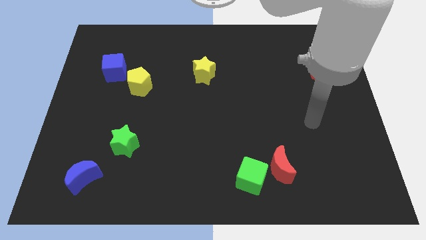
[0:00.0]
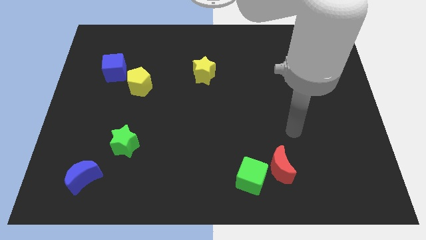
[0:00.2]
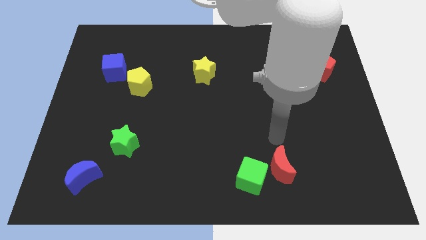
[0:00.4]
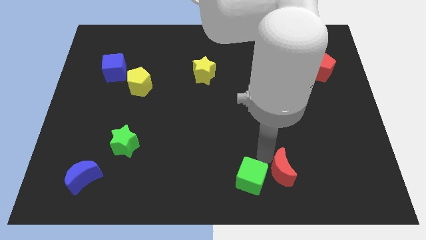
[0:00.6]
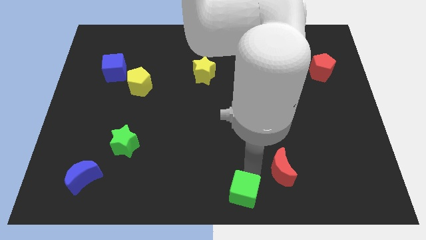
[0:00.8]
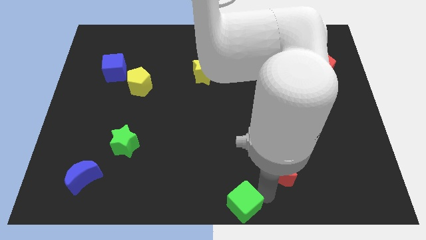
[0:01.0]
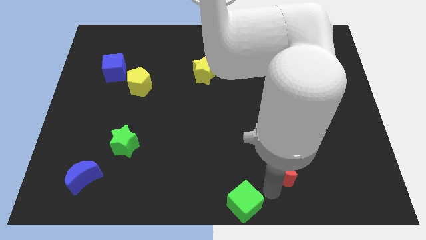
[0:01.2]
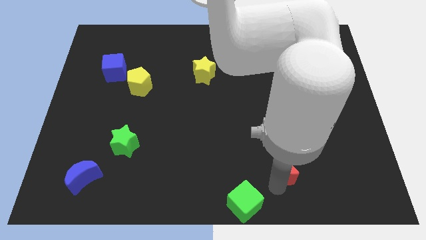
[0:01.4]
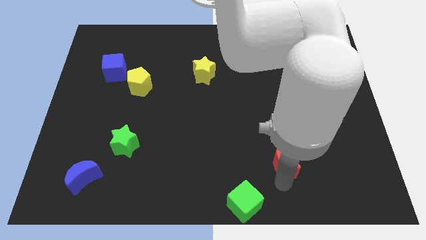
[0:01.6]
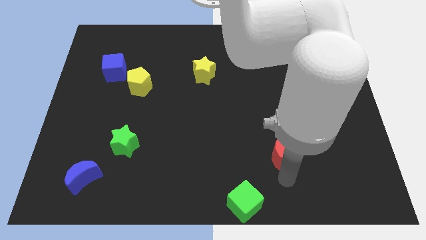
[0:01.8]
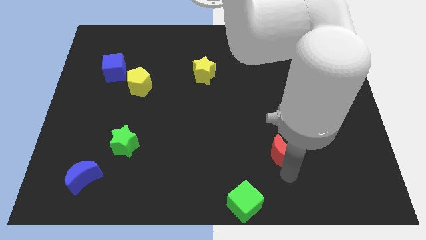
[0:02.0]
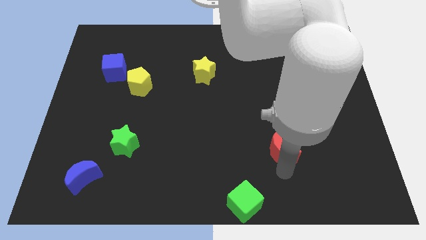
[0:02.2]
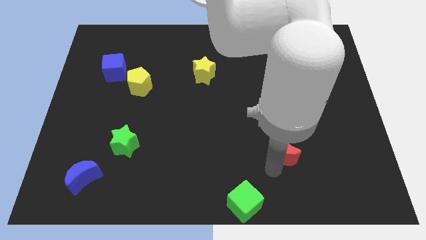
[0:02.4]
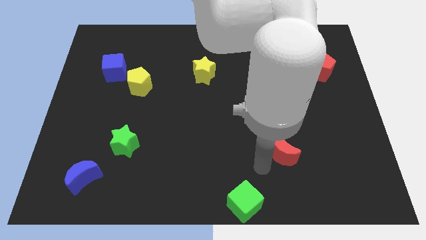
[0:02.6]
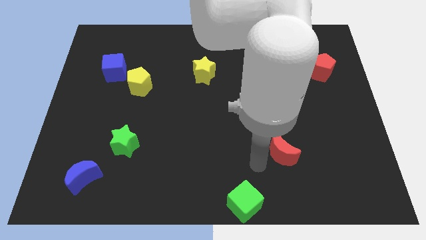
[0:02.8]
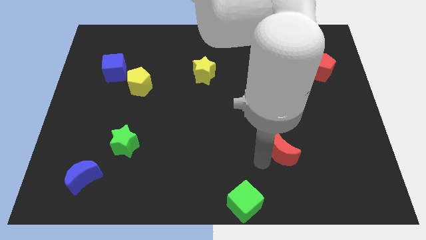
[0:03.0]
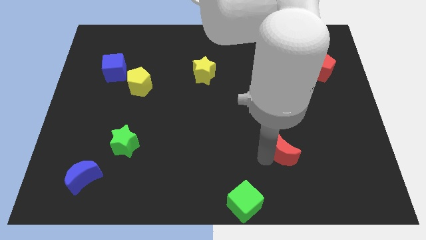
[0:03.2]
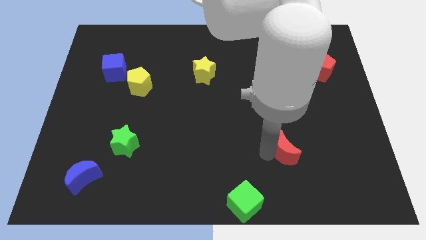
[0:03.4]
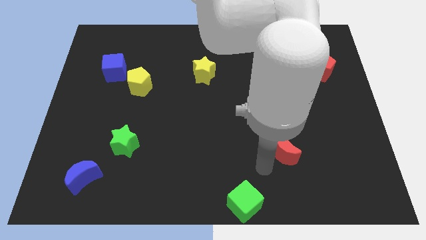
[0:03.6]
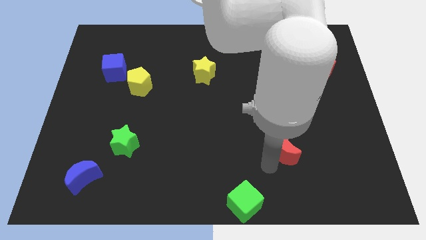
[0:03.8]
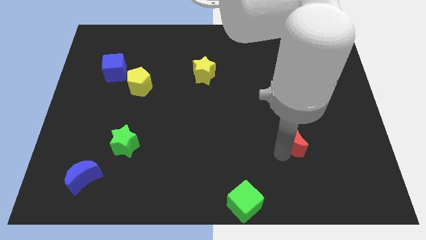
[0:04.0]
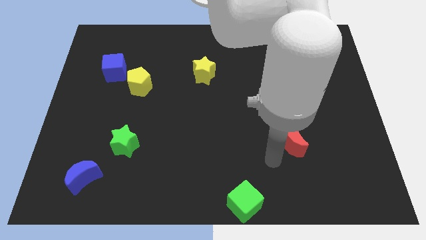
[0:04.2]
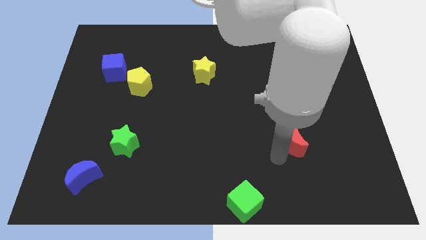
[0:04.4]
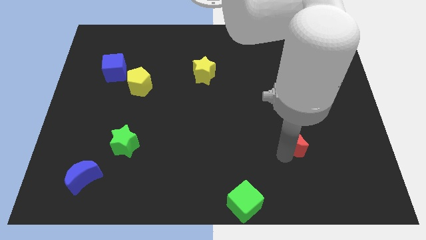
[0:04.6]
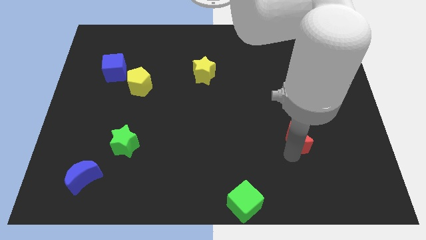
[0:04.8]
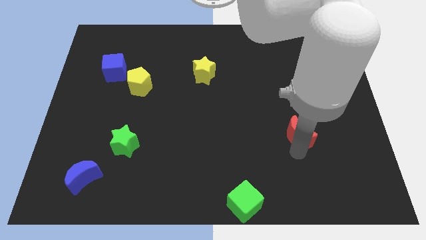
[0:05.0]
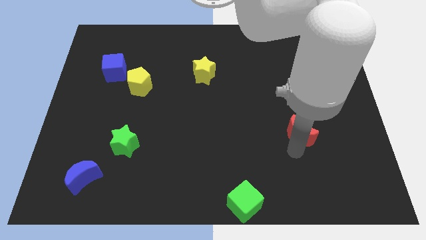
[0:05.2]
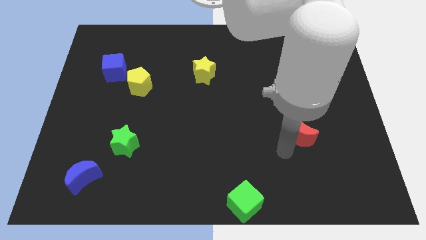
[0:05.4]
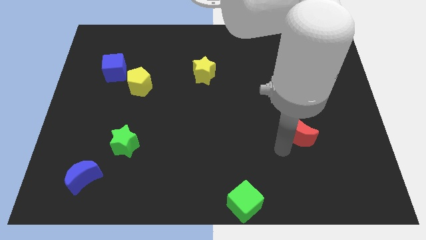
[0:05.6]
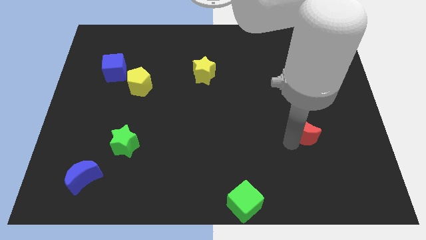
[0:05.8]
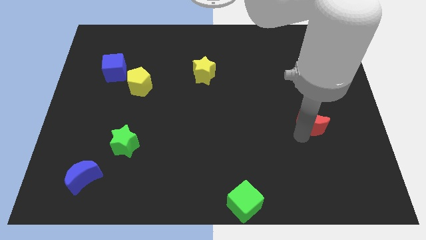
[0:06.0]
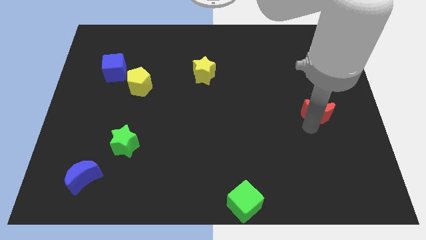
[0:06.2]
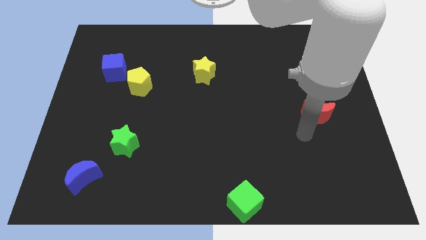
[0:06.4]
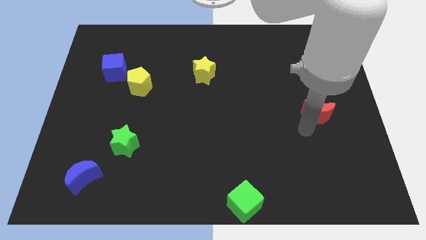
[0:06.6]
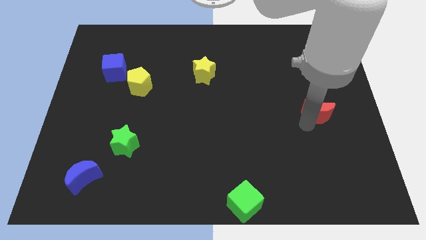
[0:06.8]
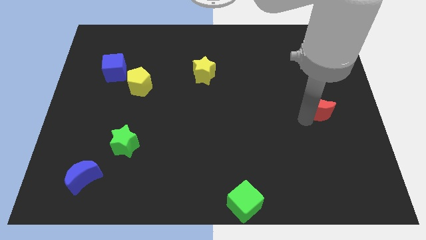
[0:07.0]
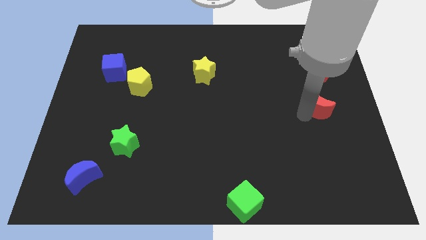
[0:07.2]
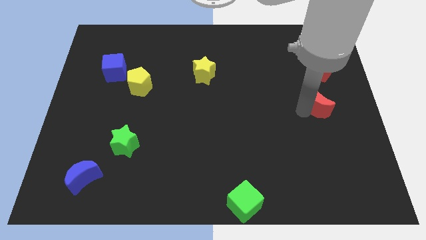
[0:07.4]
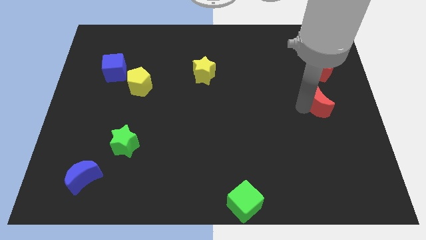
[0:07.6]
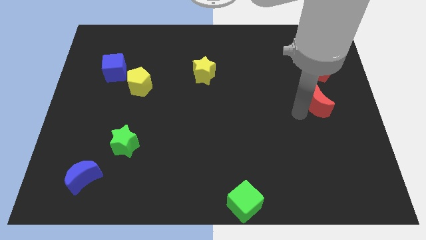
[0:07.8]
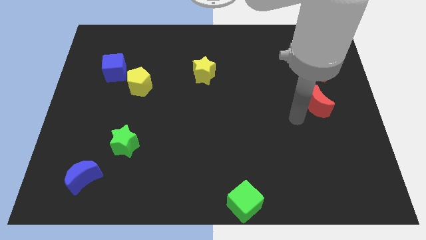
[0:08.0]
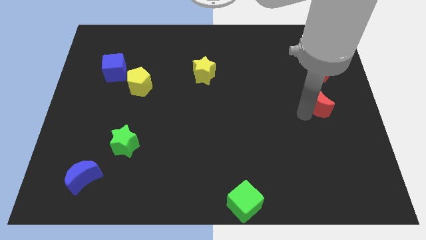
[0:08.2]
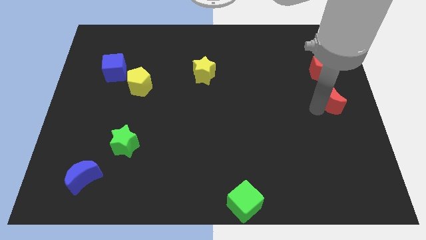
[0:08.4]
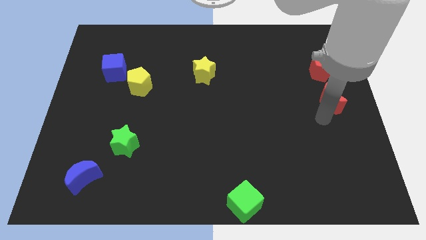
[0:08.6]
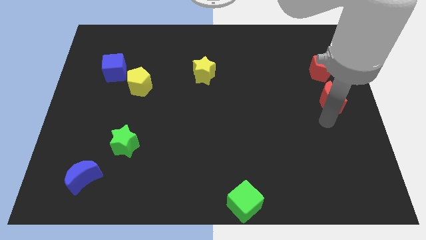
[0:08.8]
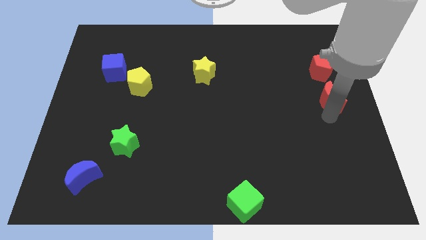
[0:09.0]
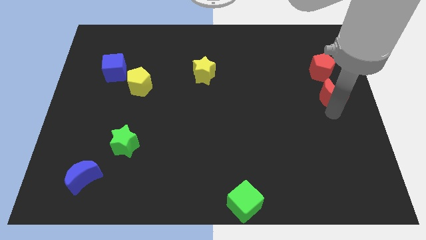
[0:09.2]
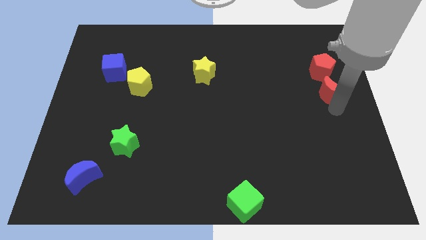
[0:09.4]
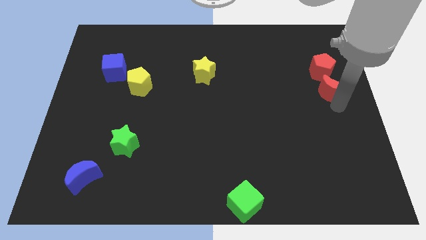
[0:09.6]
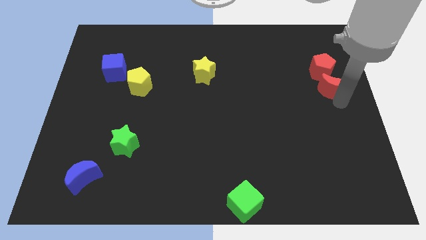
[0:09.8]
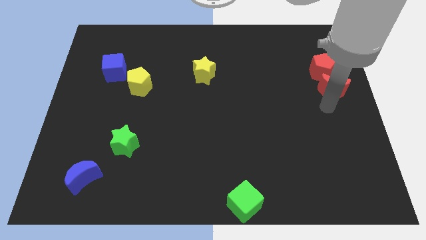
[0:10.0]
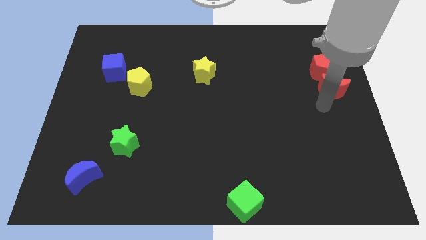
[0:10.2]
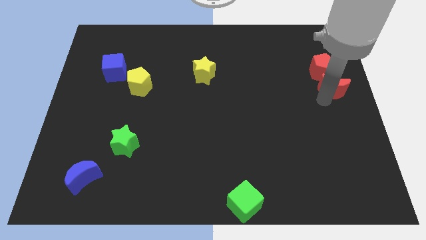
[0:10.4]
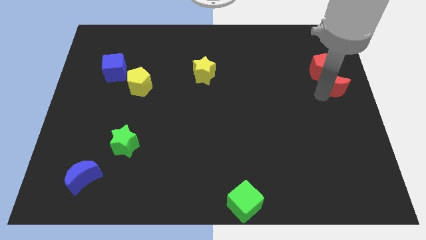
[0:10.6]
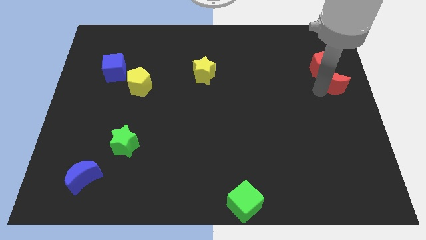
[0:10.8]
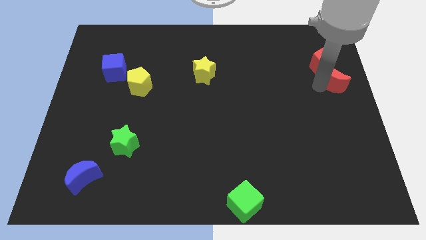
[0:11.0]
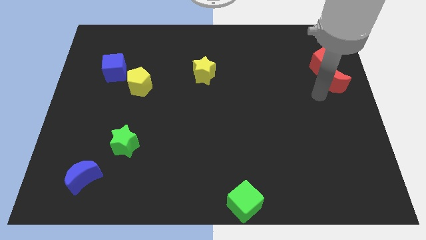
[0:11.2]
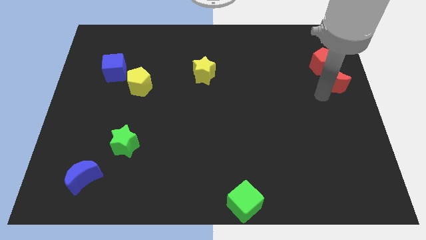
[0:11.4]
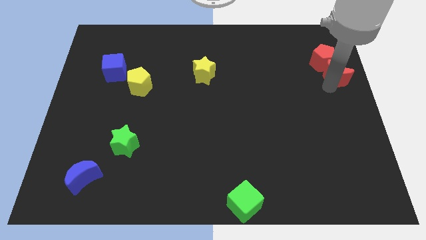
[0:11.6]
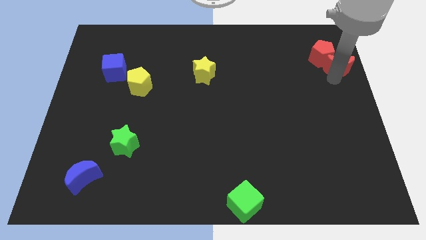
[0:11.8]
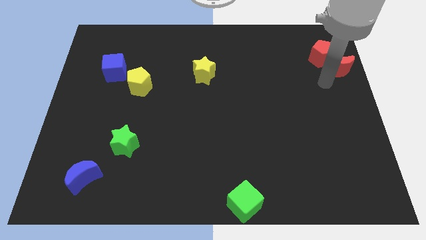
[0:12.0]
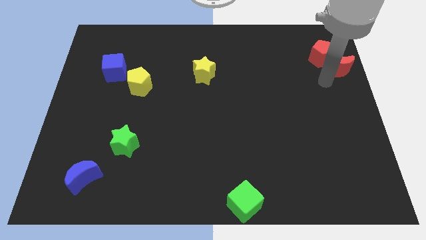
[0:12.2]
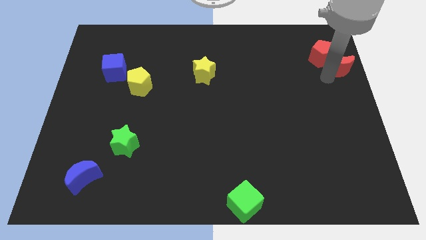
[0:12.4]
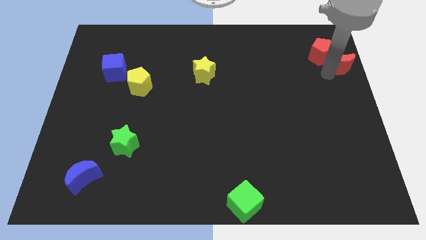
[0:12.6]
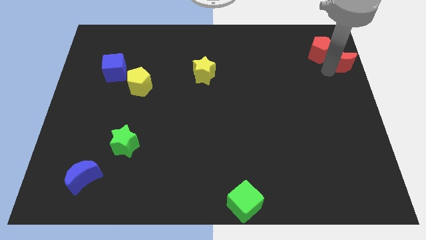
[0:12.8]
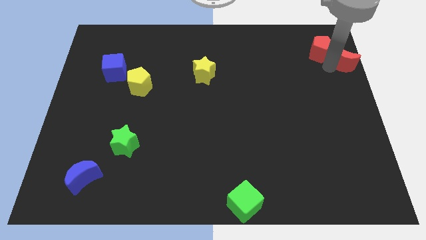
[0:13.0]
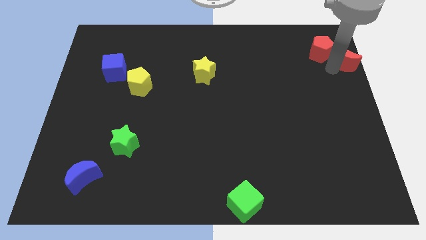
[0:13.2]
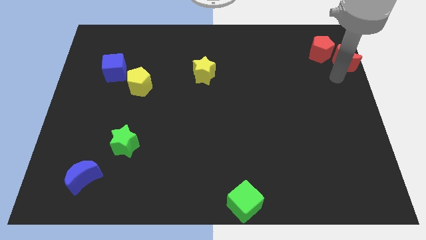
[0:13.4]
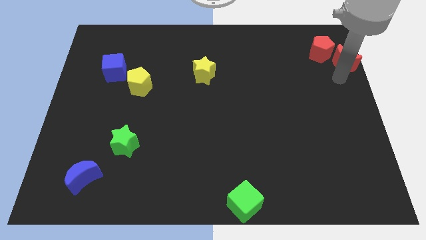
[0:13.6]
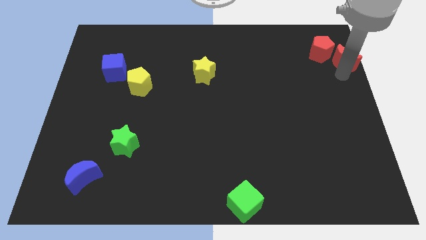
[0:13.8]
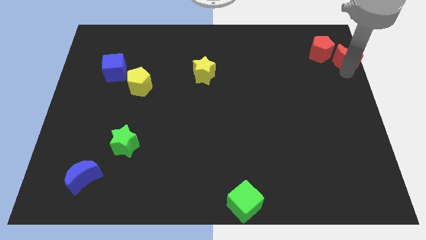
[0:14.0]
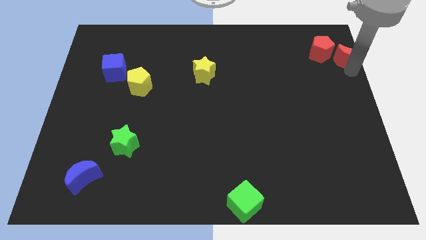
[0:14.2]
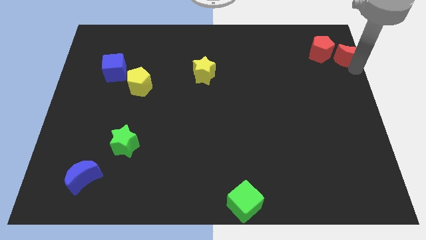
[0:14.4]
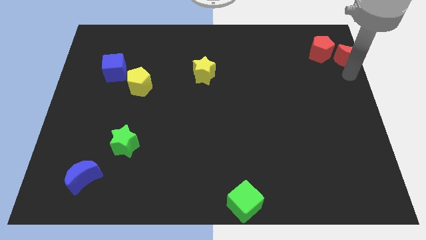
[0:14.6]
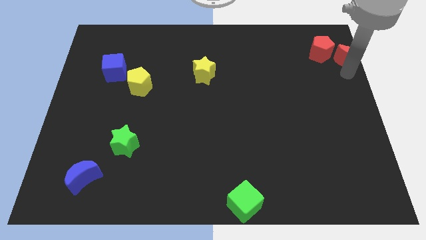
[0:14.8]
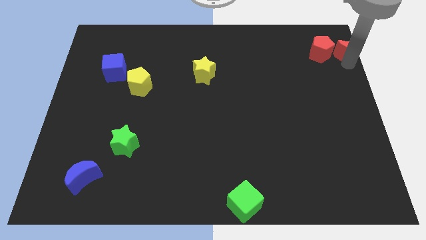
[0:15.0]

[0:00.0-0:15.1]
push the red moon to the top right of the board
